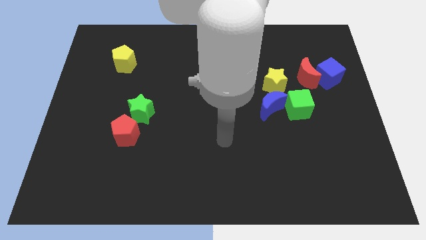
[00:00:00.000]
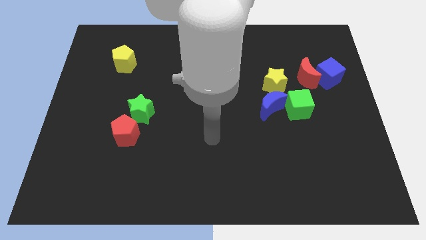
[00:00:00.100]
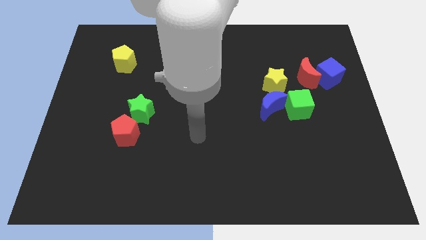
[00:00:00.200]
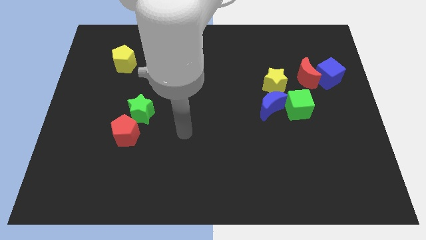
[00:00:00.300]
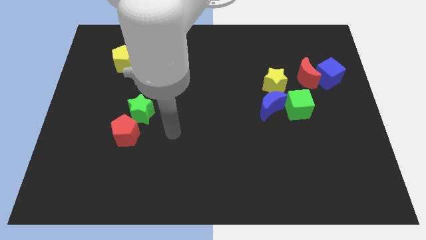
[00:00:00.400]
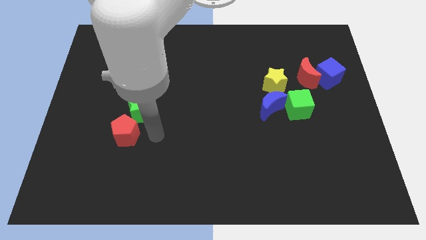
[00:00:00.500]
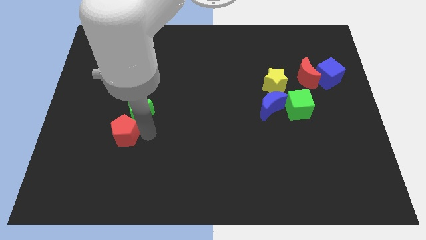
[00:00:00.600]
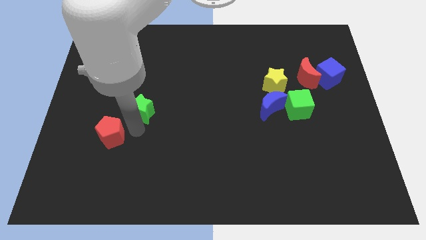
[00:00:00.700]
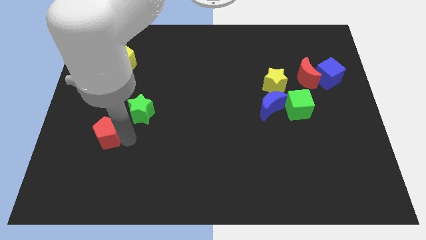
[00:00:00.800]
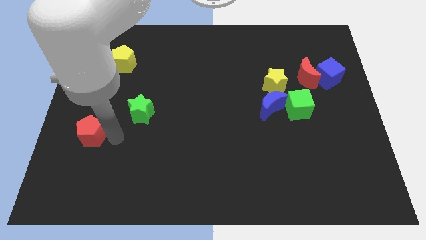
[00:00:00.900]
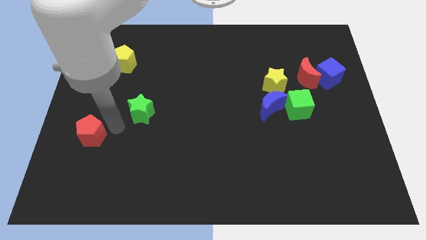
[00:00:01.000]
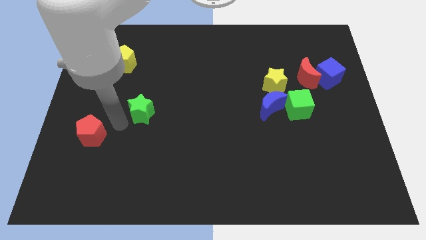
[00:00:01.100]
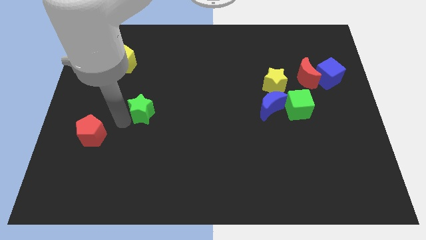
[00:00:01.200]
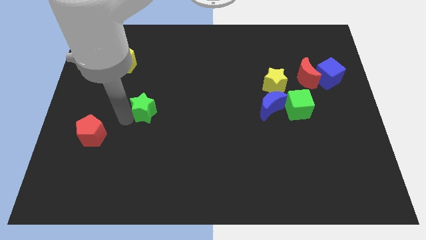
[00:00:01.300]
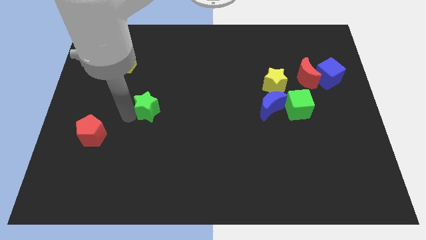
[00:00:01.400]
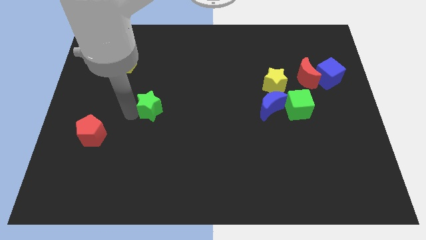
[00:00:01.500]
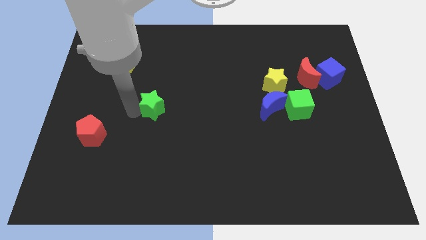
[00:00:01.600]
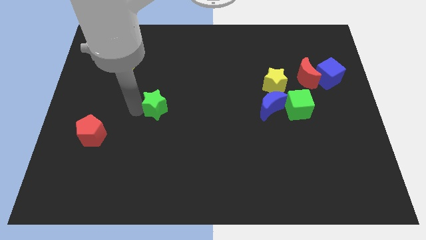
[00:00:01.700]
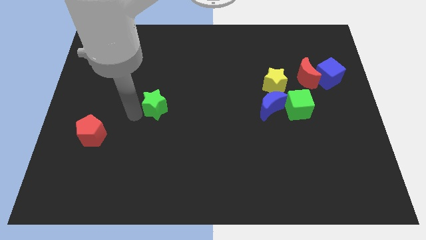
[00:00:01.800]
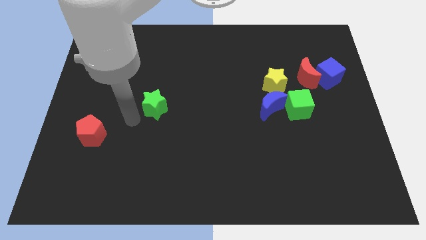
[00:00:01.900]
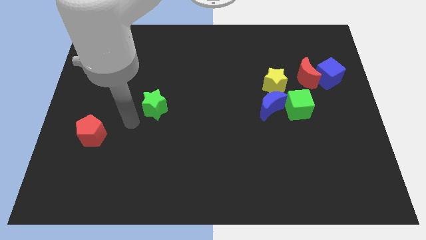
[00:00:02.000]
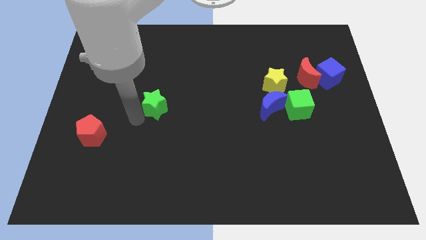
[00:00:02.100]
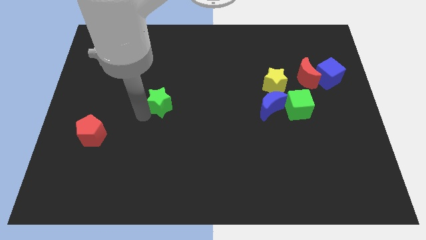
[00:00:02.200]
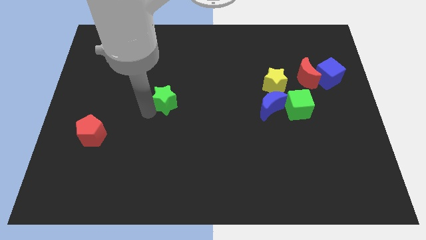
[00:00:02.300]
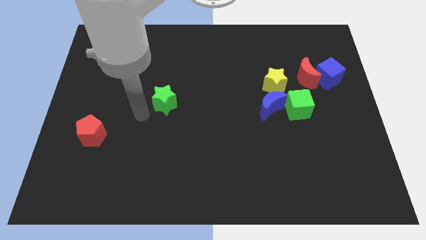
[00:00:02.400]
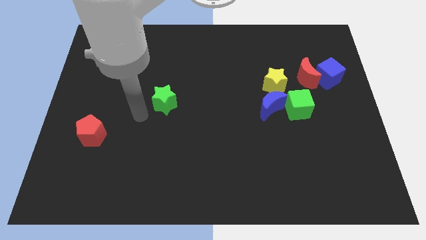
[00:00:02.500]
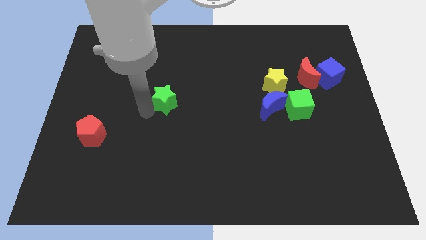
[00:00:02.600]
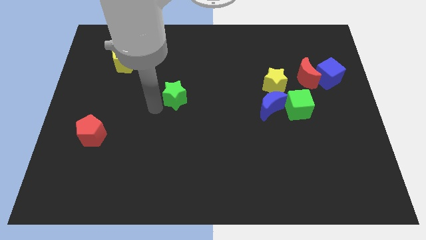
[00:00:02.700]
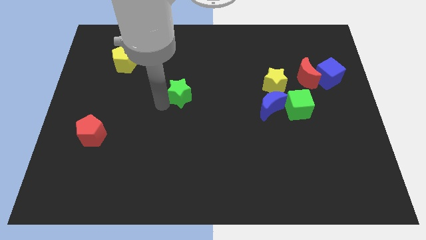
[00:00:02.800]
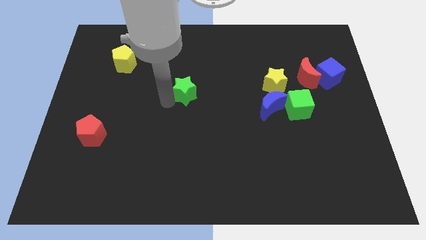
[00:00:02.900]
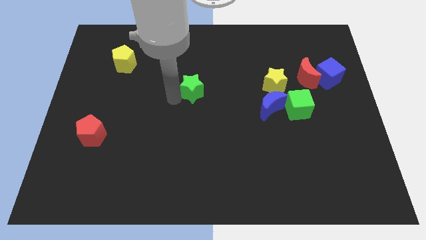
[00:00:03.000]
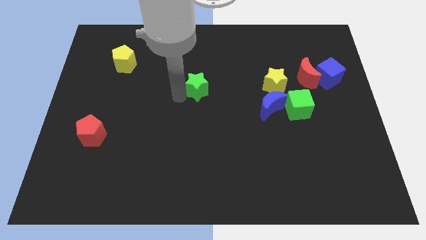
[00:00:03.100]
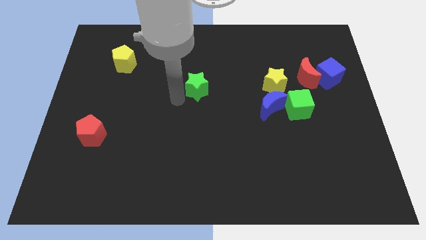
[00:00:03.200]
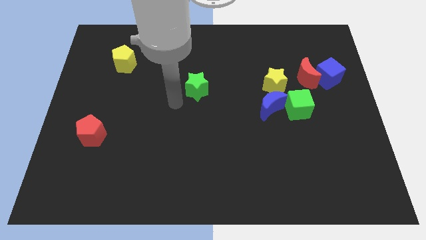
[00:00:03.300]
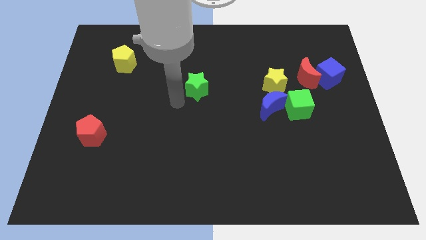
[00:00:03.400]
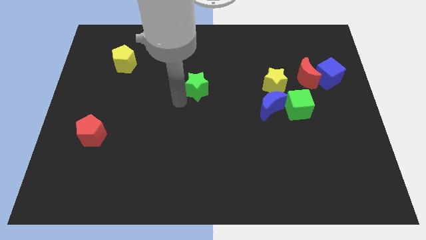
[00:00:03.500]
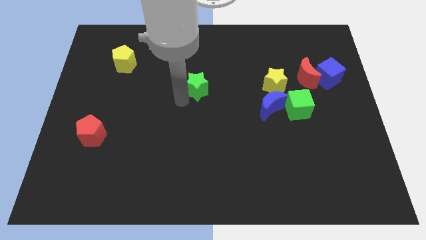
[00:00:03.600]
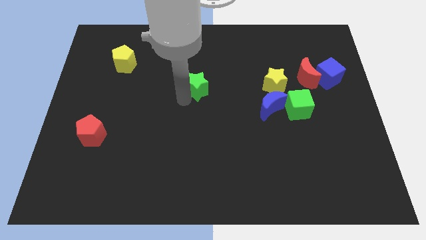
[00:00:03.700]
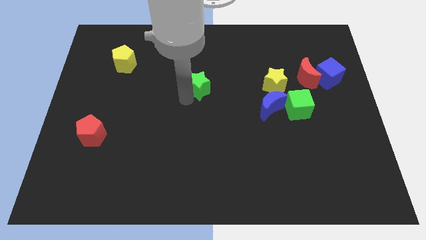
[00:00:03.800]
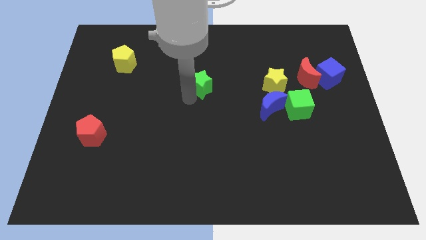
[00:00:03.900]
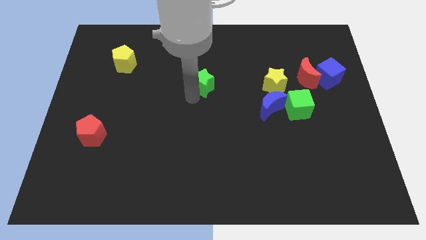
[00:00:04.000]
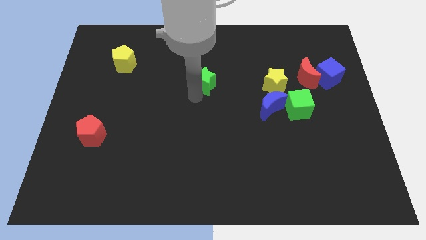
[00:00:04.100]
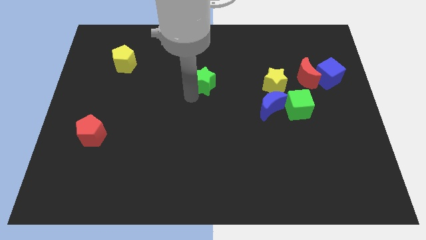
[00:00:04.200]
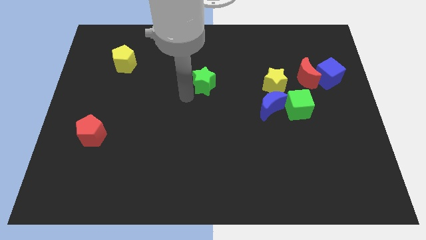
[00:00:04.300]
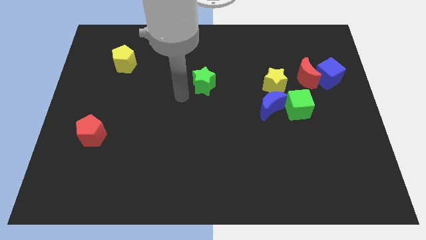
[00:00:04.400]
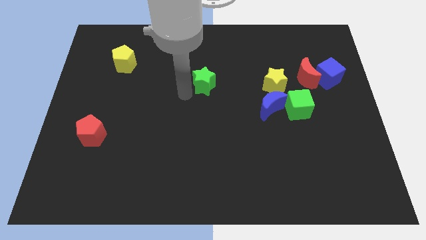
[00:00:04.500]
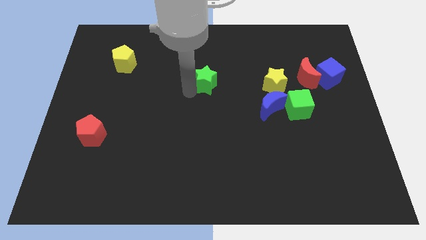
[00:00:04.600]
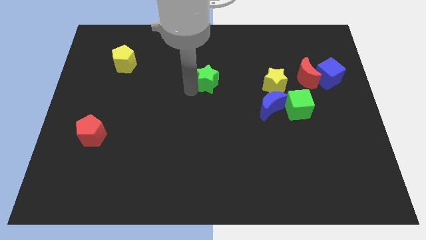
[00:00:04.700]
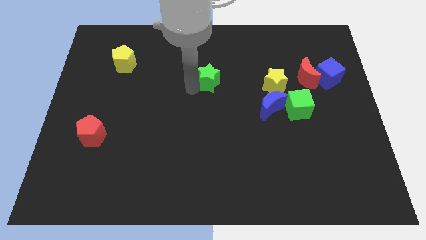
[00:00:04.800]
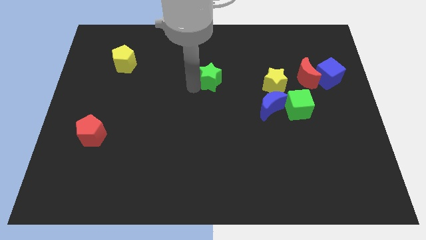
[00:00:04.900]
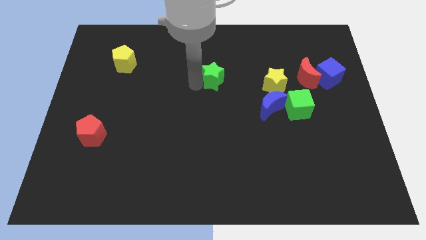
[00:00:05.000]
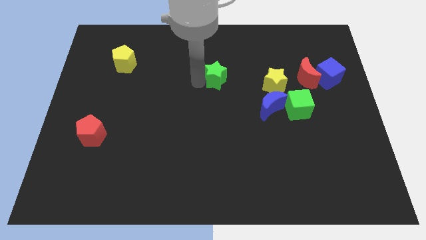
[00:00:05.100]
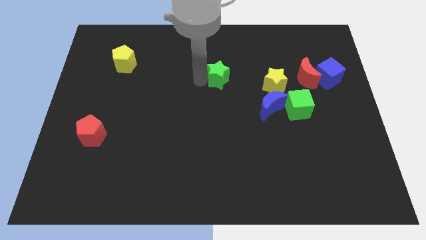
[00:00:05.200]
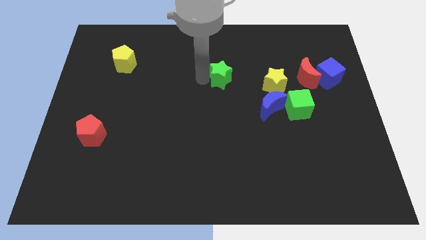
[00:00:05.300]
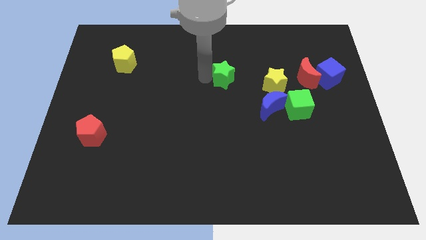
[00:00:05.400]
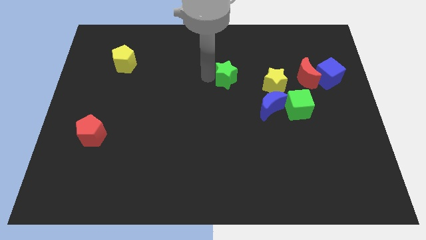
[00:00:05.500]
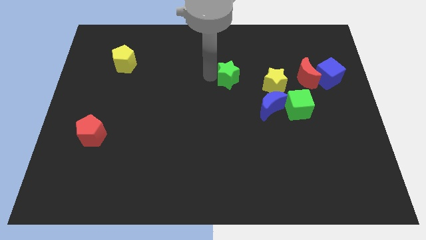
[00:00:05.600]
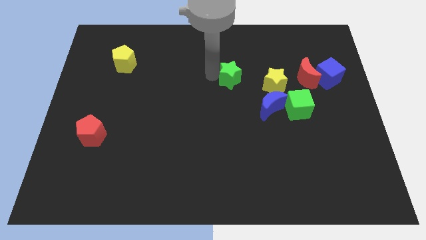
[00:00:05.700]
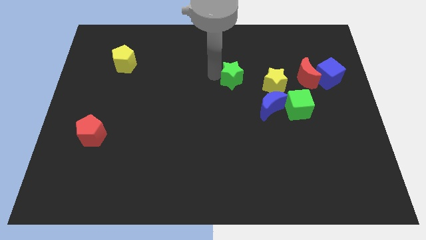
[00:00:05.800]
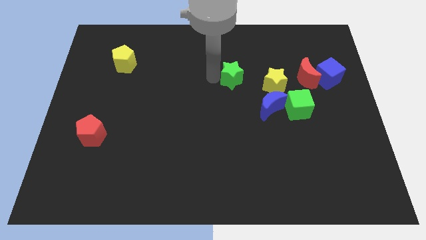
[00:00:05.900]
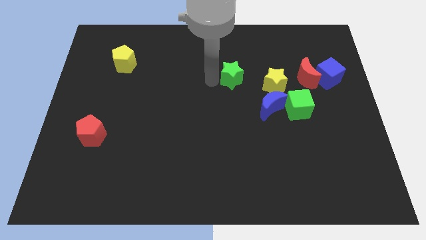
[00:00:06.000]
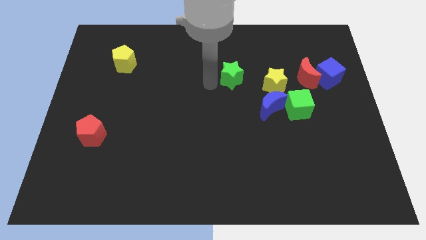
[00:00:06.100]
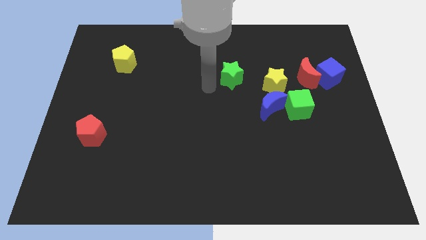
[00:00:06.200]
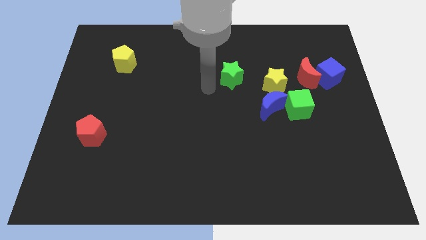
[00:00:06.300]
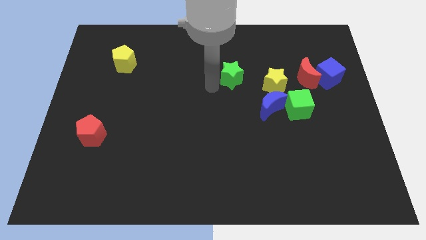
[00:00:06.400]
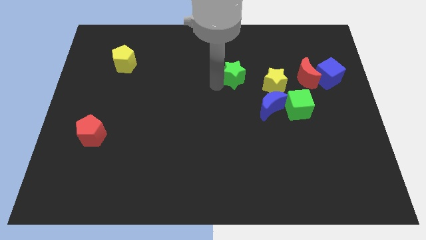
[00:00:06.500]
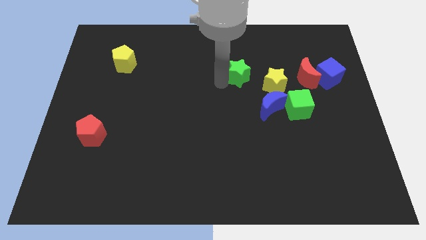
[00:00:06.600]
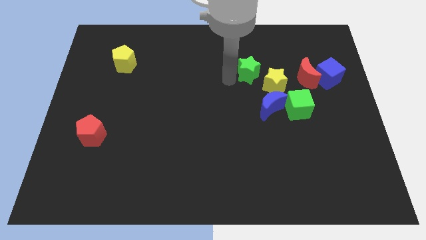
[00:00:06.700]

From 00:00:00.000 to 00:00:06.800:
push the green star to the top of the blue moon
